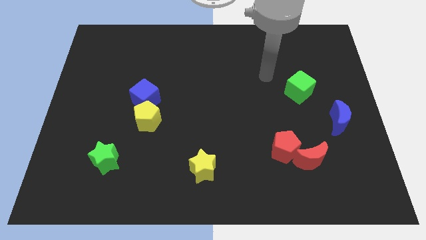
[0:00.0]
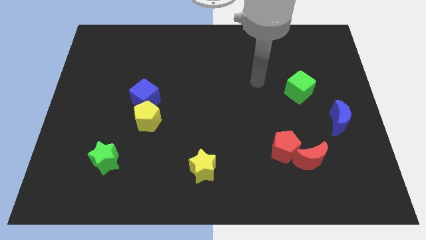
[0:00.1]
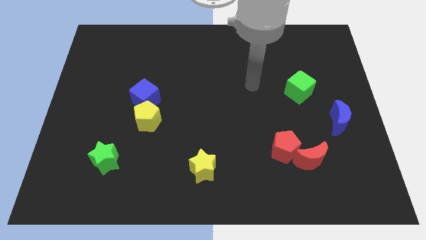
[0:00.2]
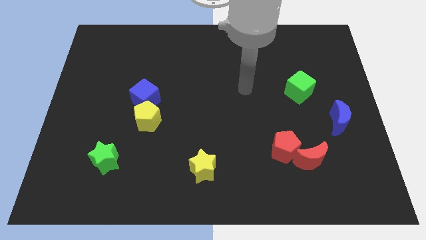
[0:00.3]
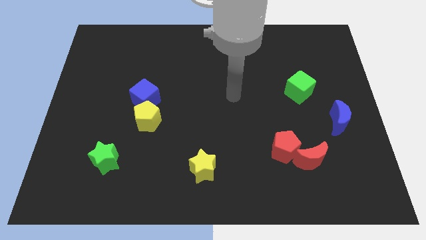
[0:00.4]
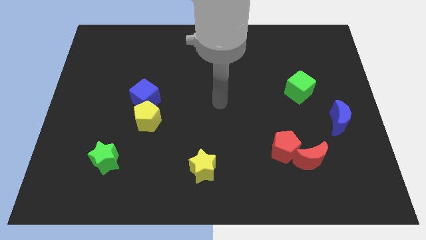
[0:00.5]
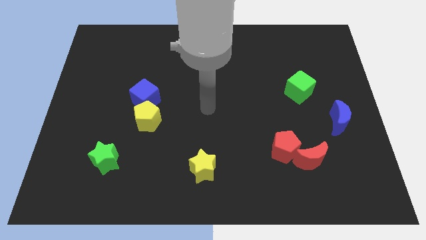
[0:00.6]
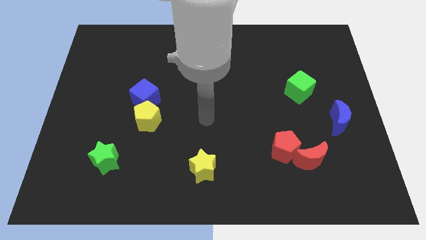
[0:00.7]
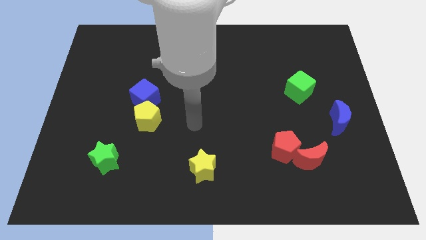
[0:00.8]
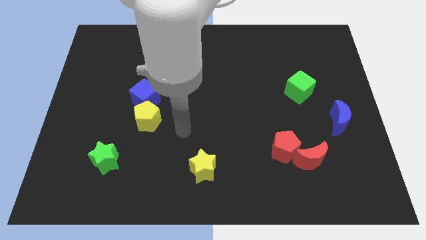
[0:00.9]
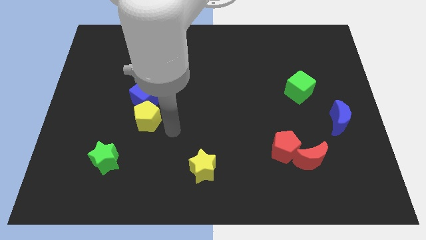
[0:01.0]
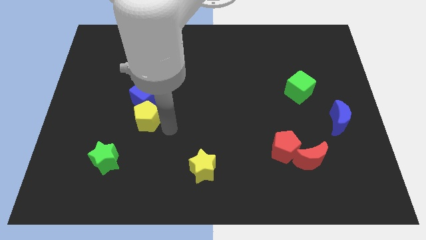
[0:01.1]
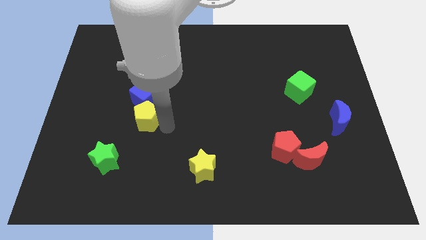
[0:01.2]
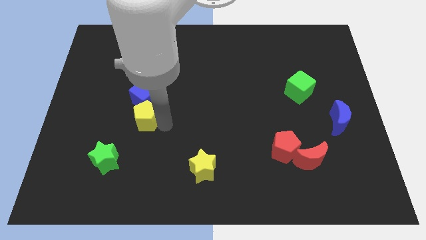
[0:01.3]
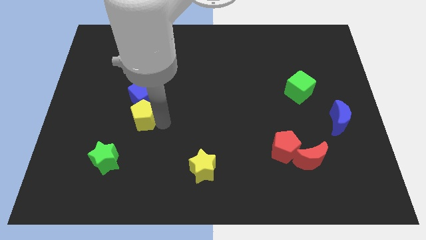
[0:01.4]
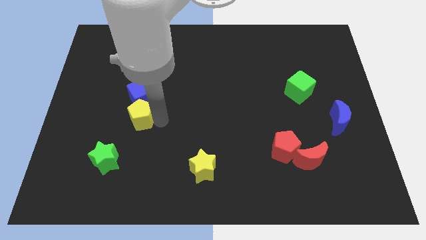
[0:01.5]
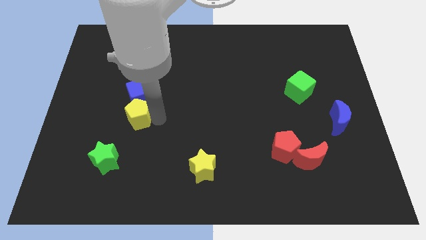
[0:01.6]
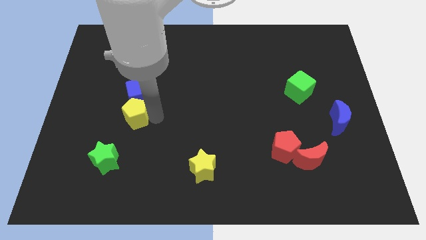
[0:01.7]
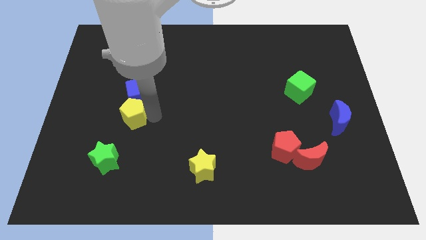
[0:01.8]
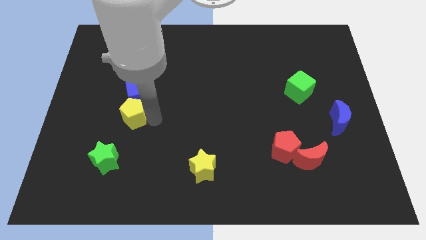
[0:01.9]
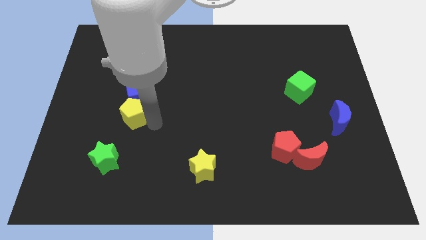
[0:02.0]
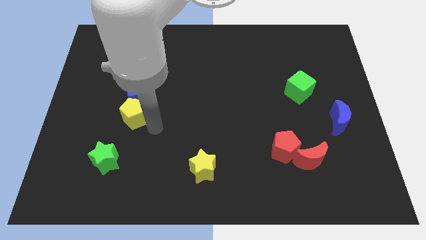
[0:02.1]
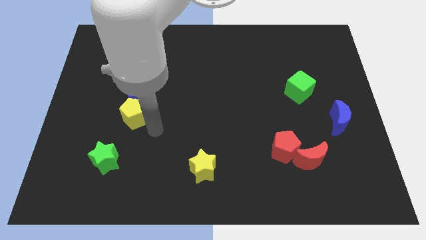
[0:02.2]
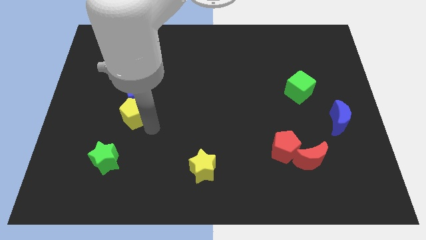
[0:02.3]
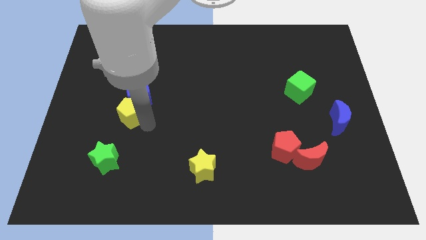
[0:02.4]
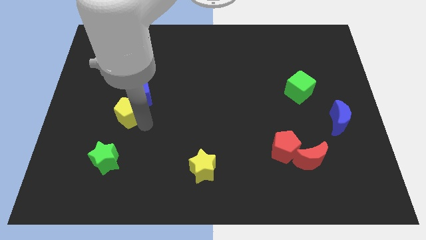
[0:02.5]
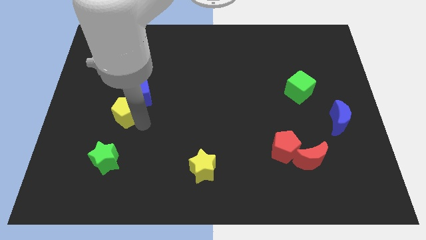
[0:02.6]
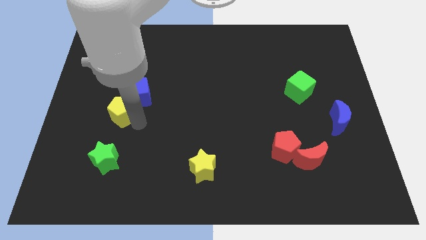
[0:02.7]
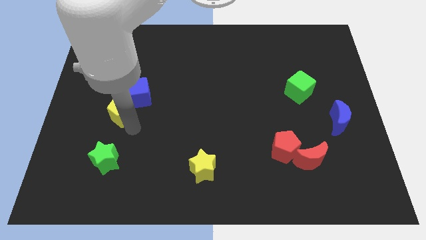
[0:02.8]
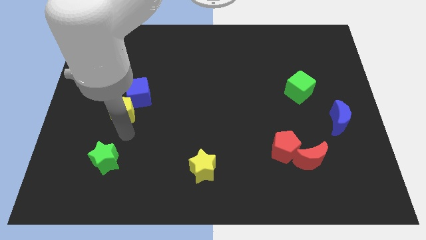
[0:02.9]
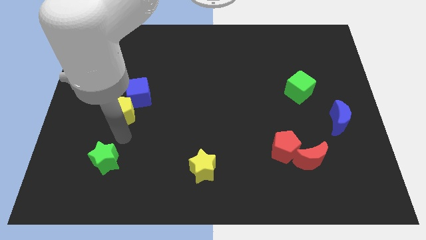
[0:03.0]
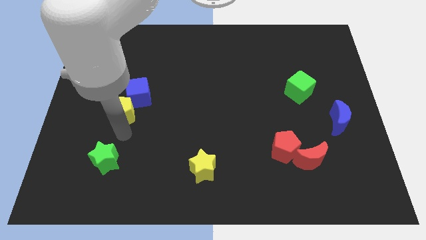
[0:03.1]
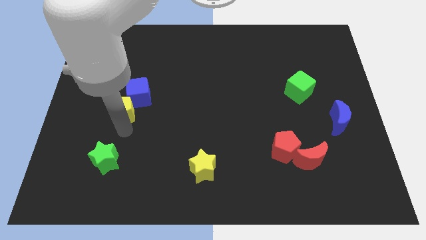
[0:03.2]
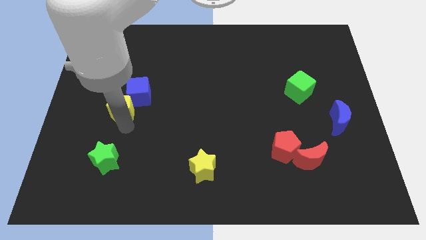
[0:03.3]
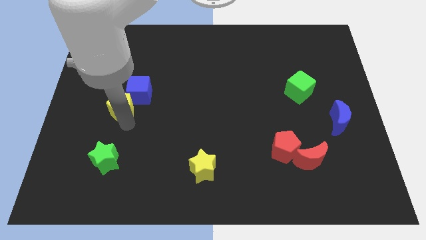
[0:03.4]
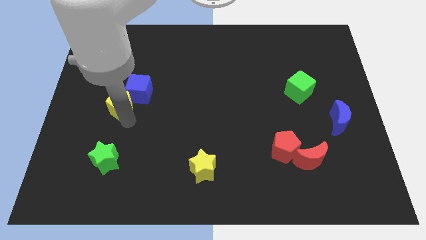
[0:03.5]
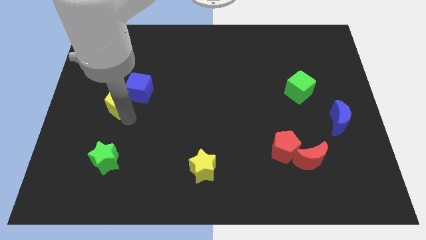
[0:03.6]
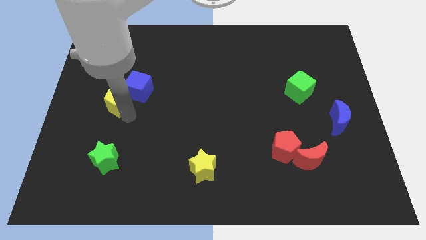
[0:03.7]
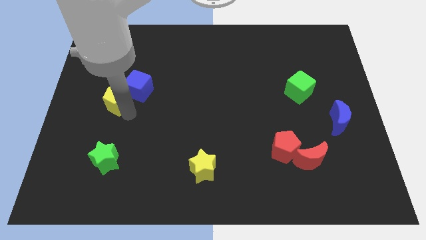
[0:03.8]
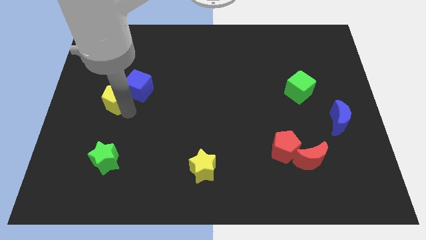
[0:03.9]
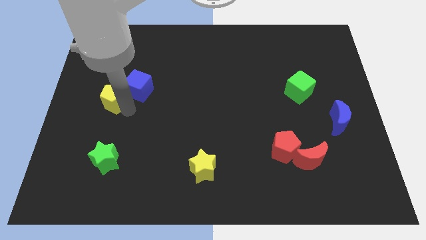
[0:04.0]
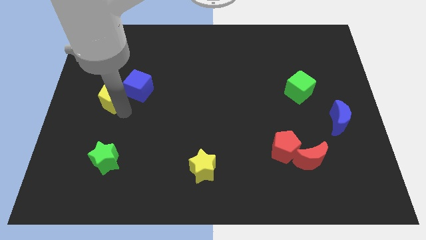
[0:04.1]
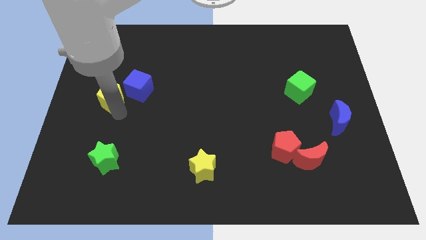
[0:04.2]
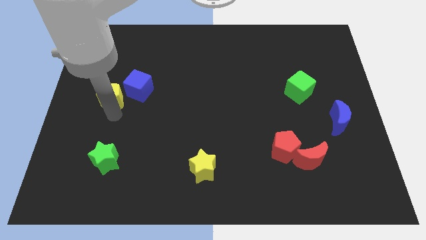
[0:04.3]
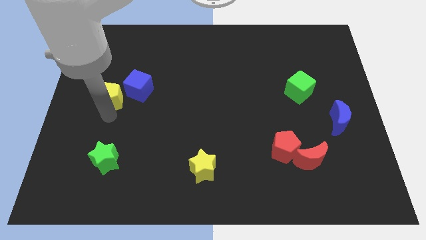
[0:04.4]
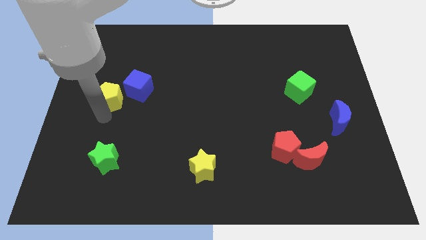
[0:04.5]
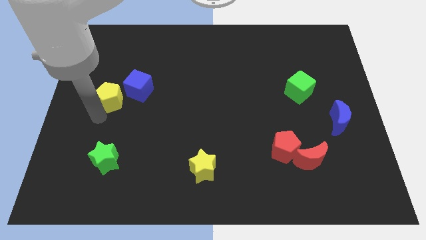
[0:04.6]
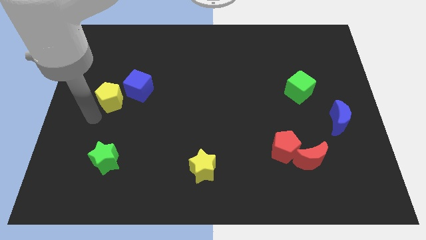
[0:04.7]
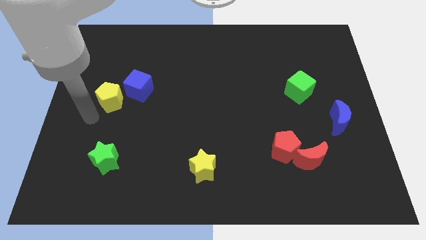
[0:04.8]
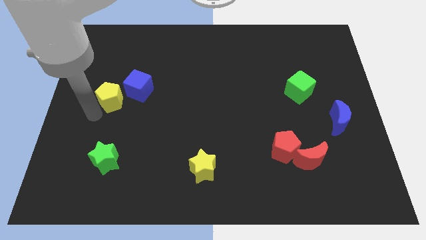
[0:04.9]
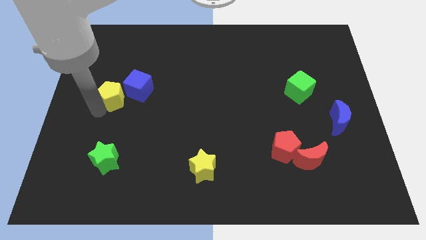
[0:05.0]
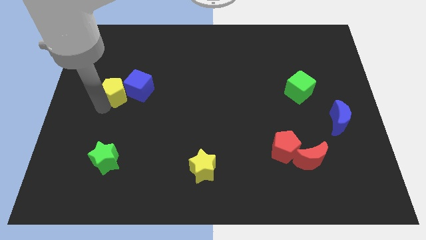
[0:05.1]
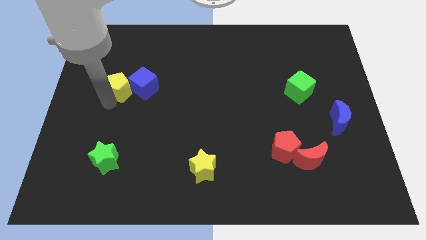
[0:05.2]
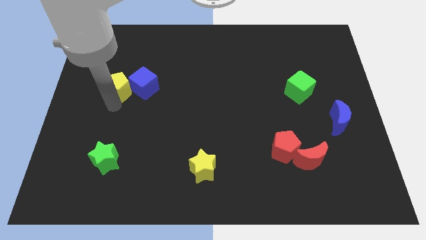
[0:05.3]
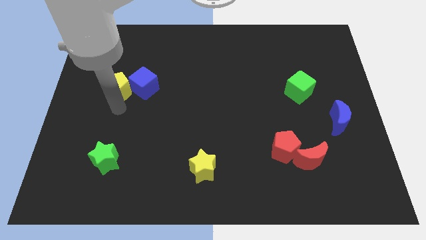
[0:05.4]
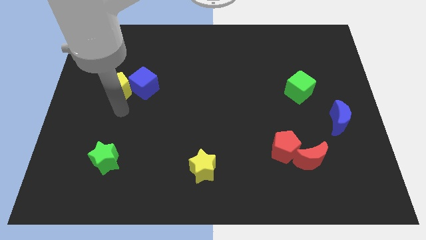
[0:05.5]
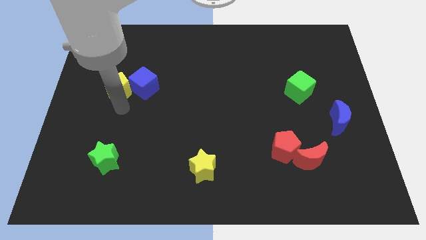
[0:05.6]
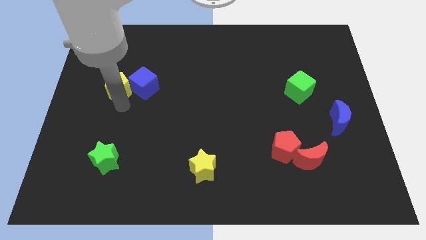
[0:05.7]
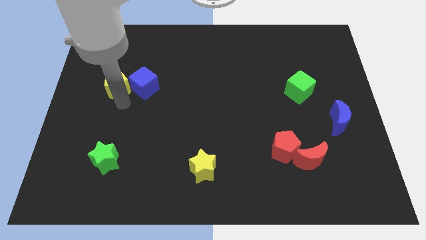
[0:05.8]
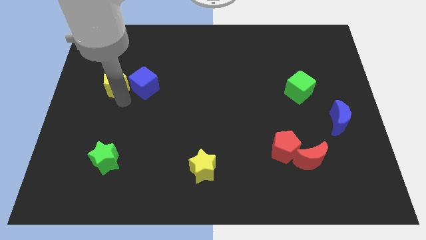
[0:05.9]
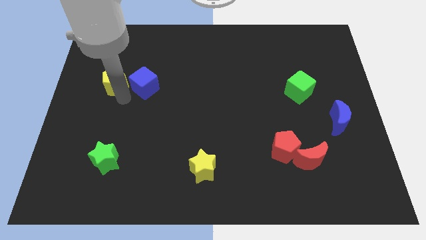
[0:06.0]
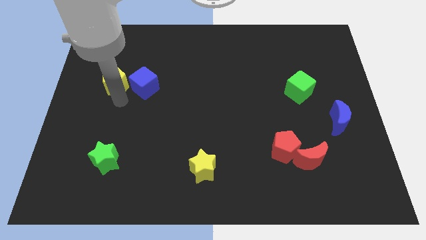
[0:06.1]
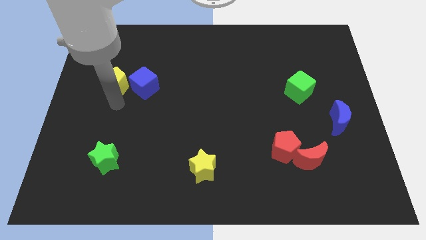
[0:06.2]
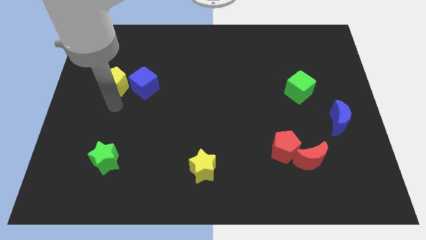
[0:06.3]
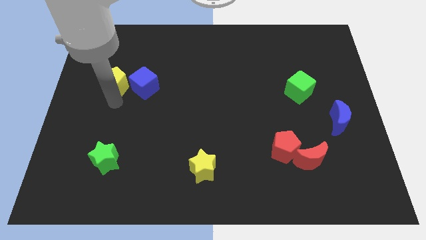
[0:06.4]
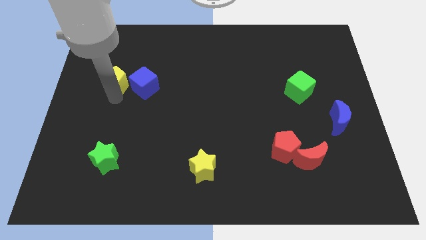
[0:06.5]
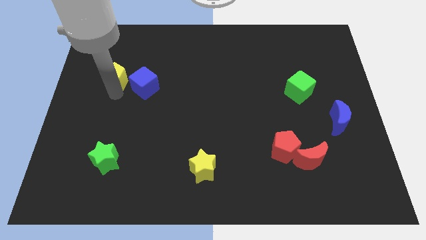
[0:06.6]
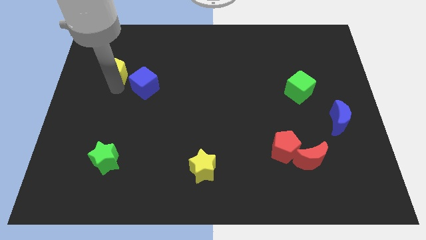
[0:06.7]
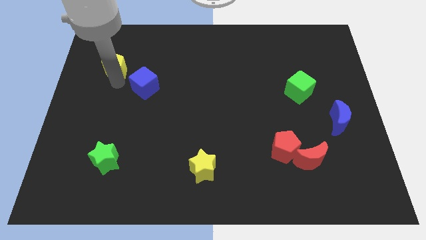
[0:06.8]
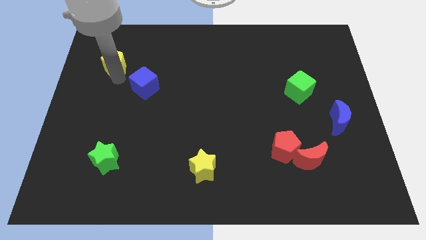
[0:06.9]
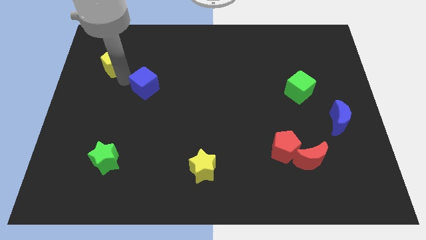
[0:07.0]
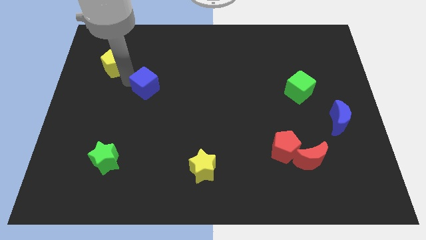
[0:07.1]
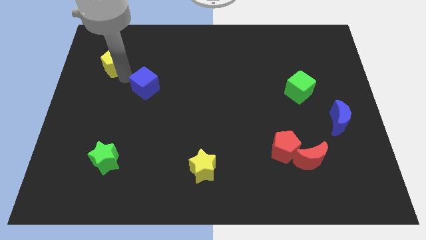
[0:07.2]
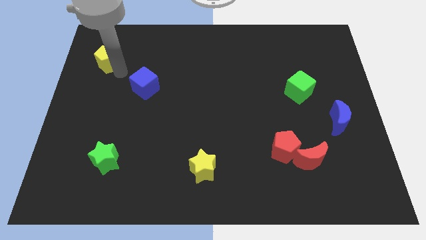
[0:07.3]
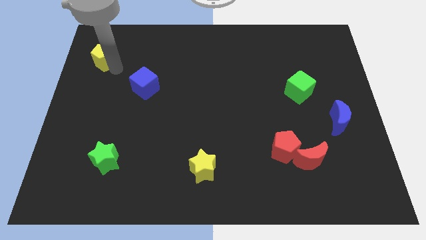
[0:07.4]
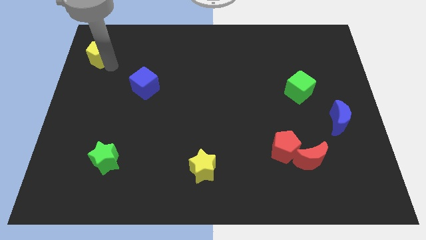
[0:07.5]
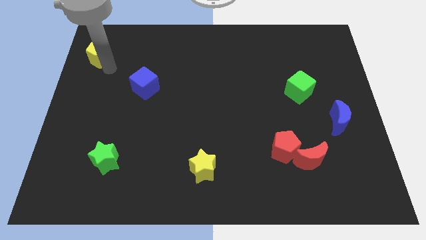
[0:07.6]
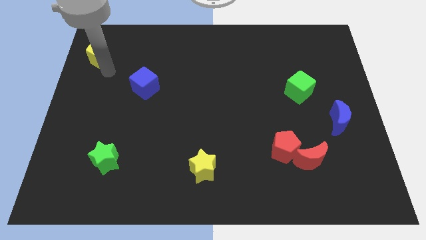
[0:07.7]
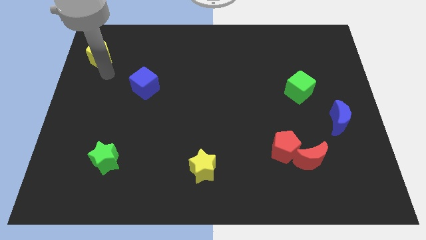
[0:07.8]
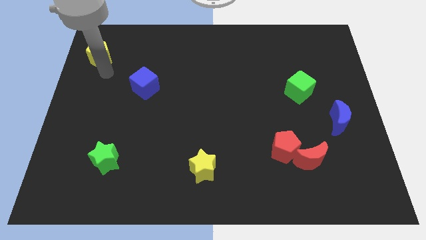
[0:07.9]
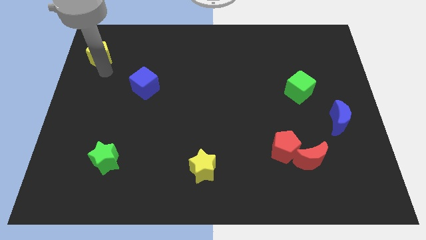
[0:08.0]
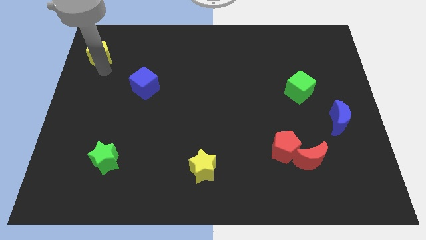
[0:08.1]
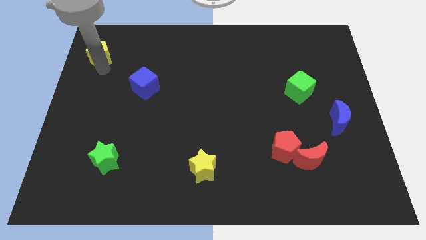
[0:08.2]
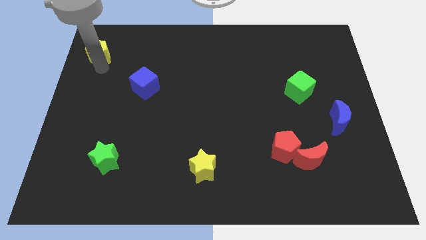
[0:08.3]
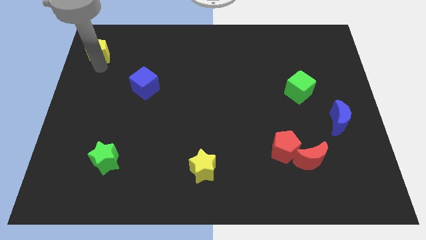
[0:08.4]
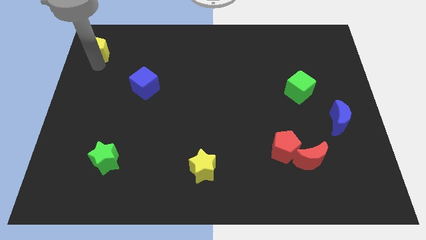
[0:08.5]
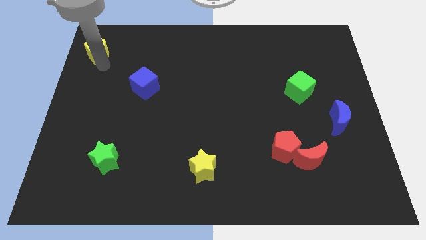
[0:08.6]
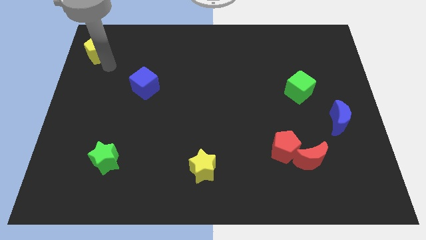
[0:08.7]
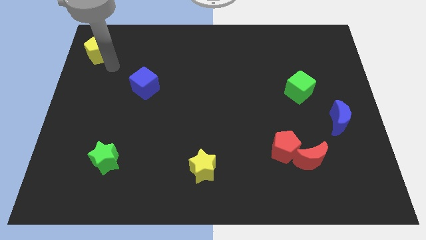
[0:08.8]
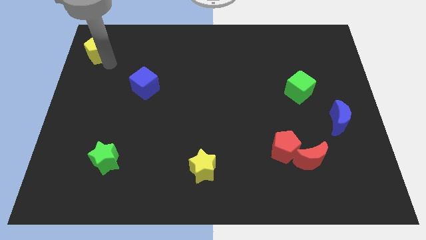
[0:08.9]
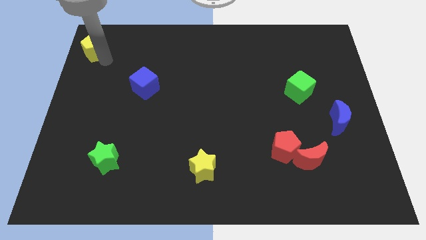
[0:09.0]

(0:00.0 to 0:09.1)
slide the yellow pentagon to the top left of the board
